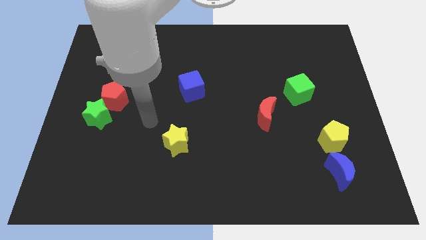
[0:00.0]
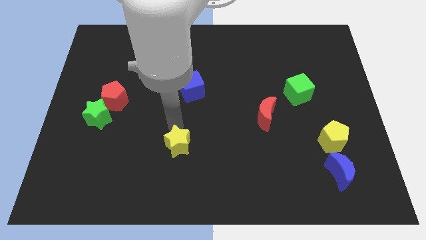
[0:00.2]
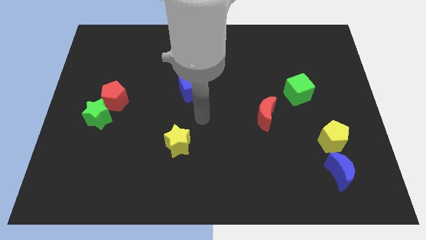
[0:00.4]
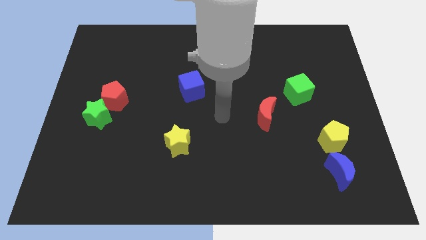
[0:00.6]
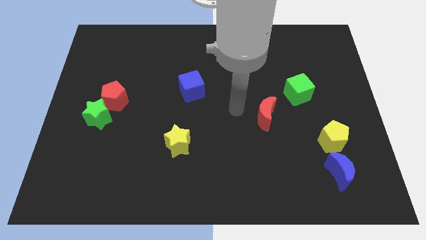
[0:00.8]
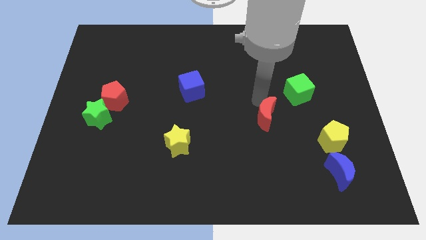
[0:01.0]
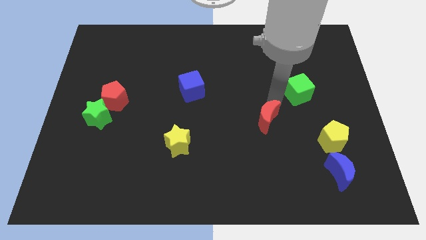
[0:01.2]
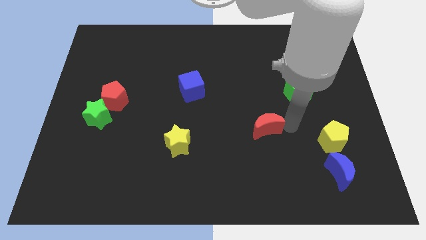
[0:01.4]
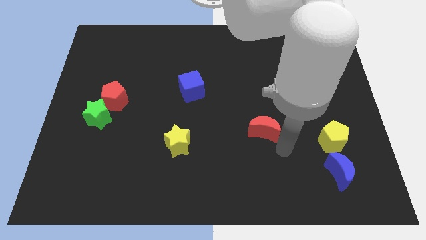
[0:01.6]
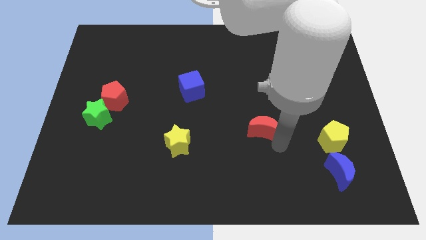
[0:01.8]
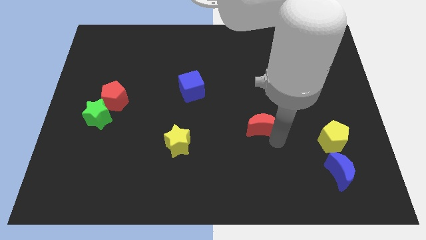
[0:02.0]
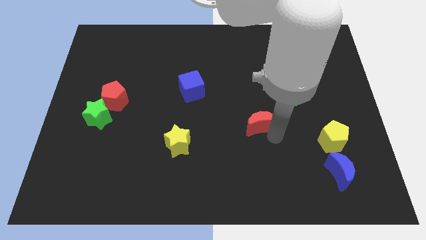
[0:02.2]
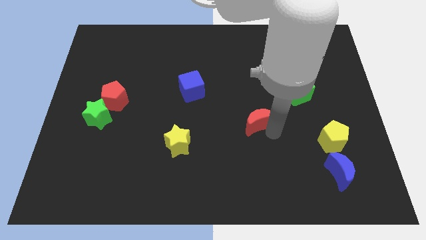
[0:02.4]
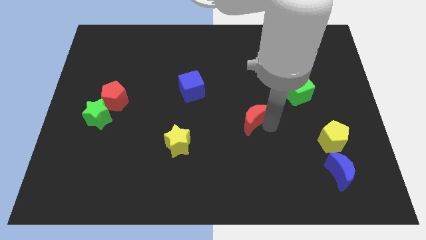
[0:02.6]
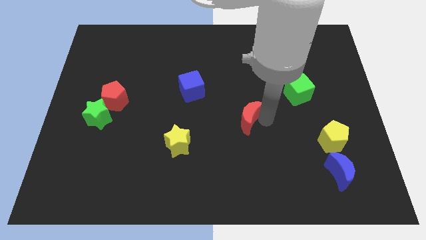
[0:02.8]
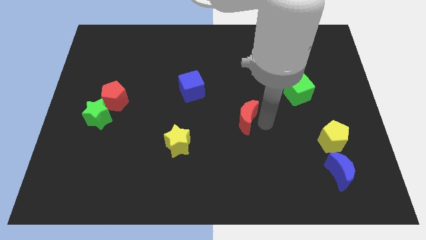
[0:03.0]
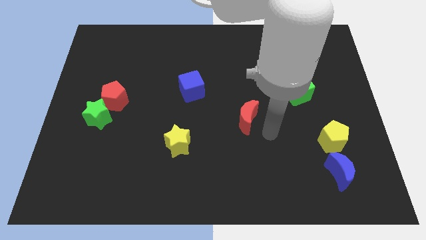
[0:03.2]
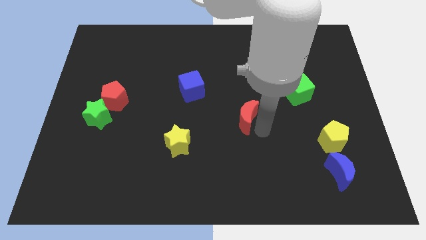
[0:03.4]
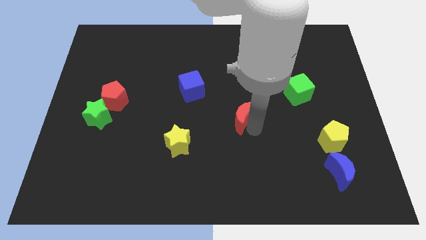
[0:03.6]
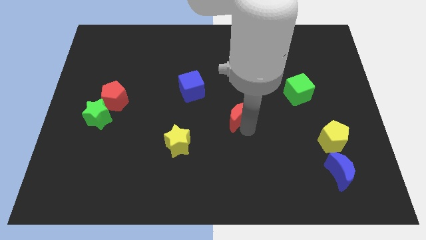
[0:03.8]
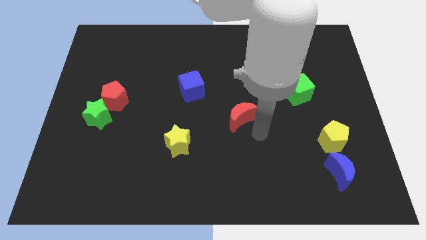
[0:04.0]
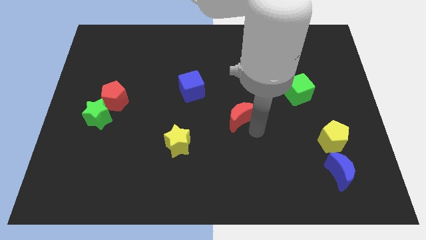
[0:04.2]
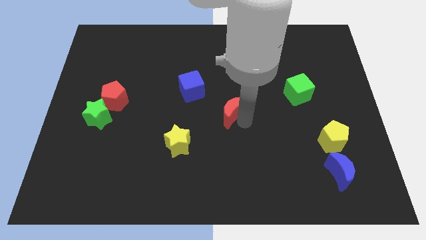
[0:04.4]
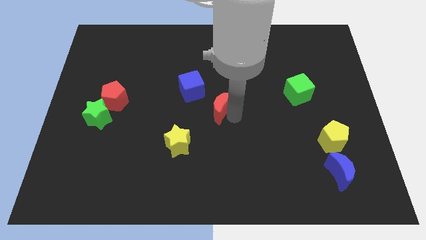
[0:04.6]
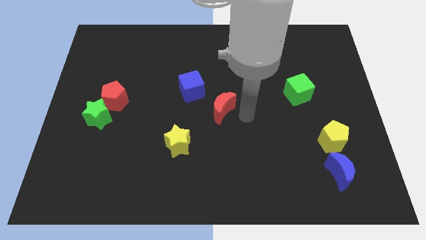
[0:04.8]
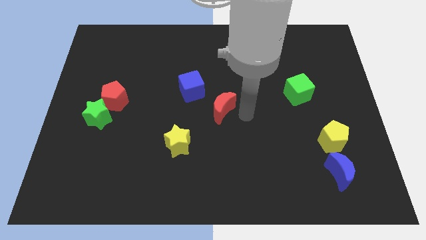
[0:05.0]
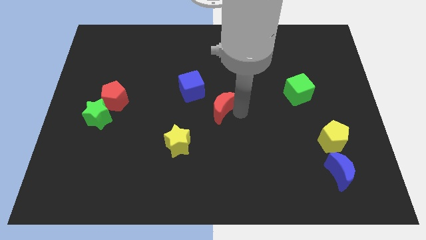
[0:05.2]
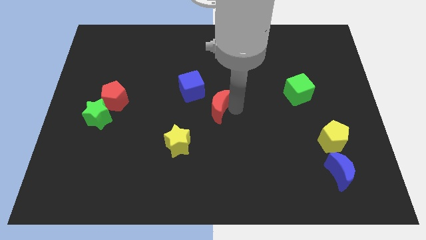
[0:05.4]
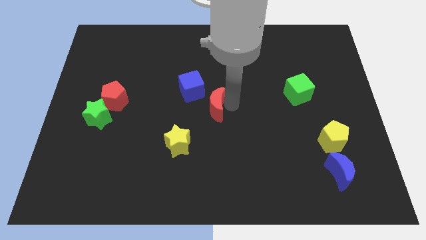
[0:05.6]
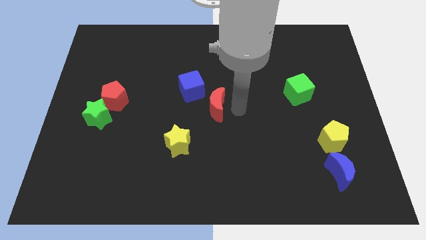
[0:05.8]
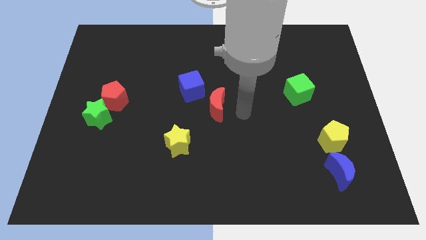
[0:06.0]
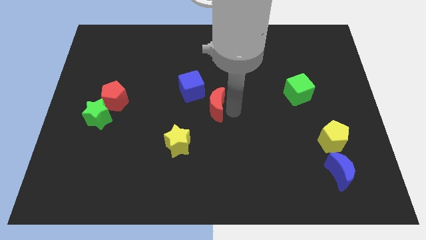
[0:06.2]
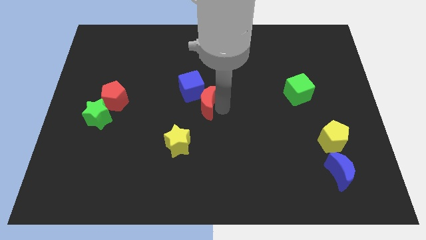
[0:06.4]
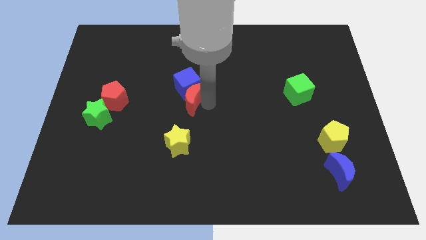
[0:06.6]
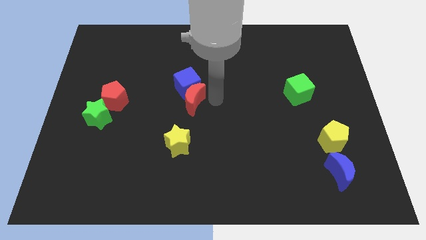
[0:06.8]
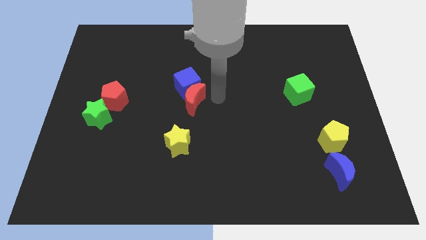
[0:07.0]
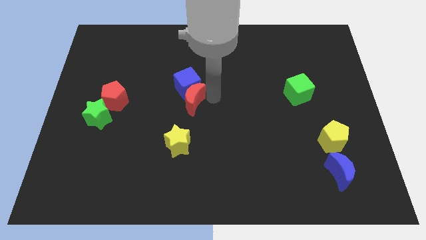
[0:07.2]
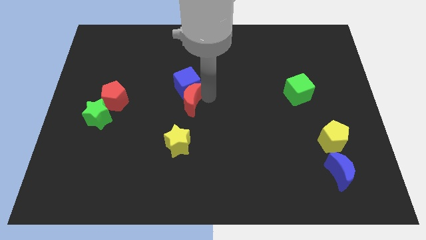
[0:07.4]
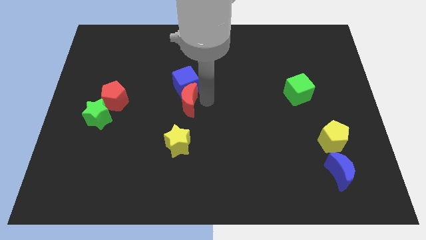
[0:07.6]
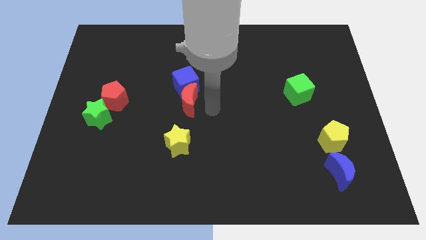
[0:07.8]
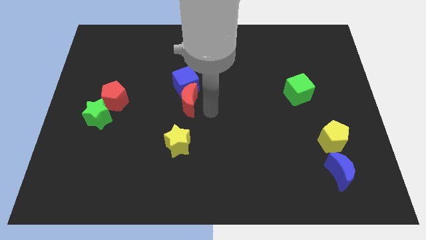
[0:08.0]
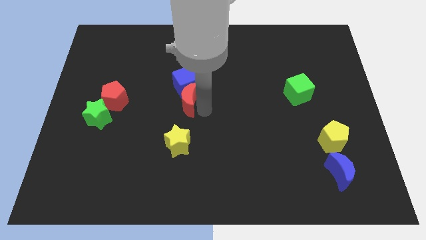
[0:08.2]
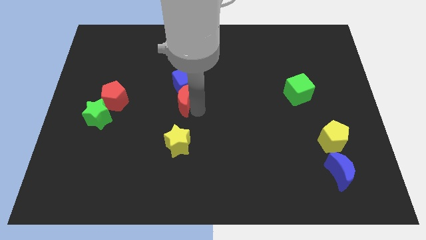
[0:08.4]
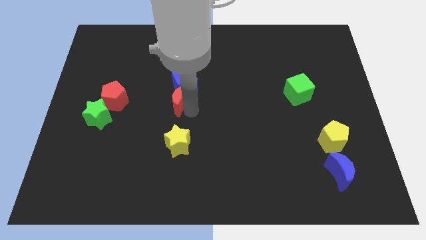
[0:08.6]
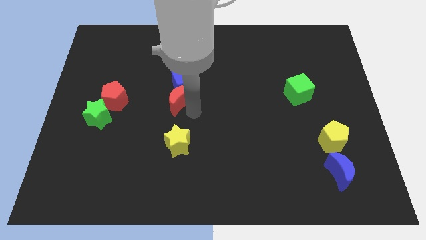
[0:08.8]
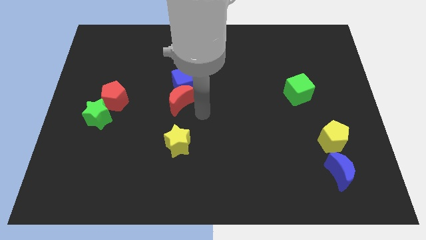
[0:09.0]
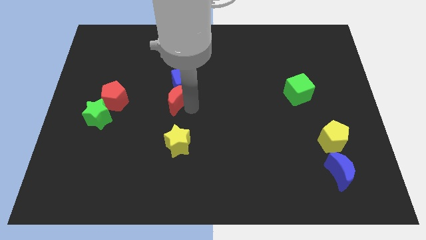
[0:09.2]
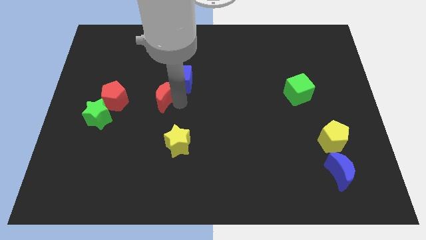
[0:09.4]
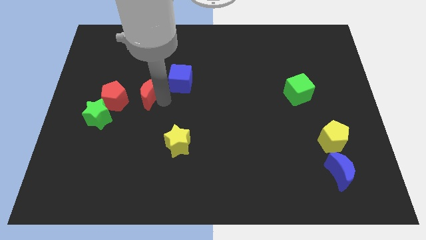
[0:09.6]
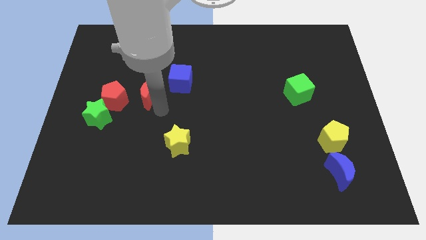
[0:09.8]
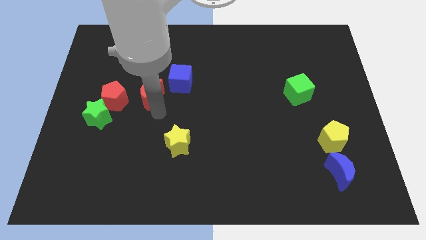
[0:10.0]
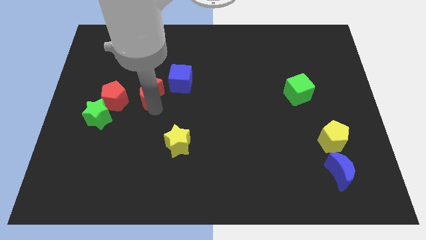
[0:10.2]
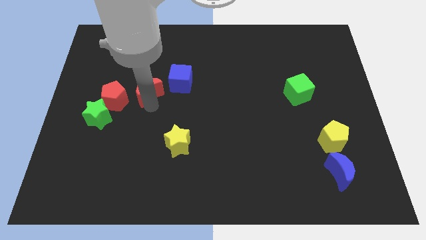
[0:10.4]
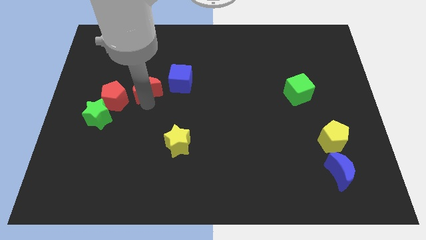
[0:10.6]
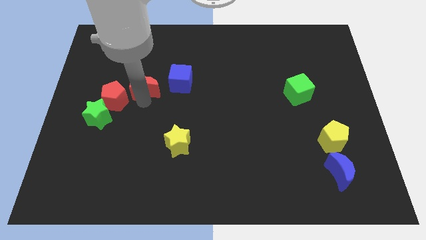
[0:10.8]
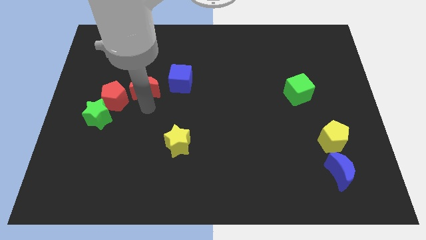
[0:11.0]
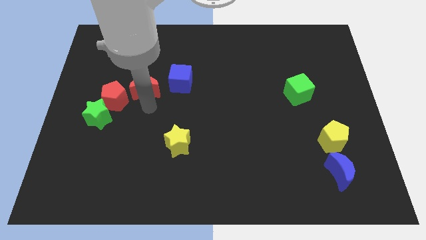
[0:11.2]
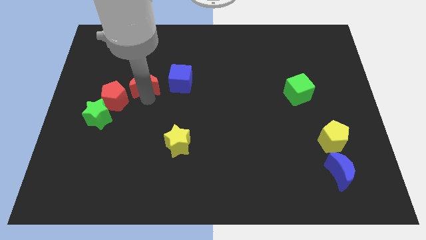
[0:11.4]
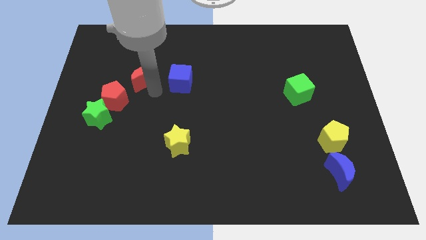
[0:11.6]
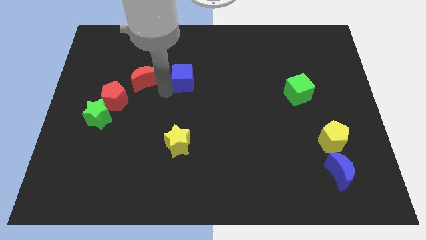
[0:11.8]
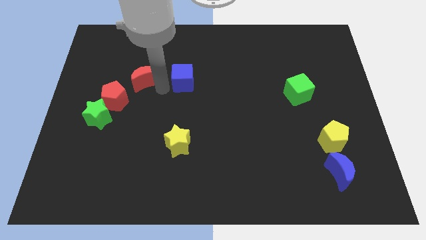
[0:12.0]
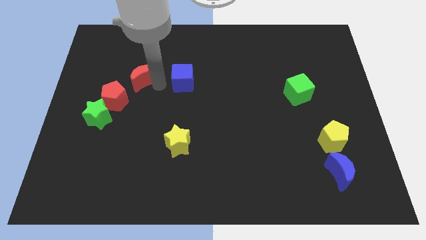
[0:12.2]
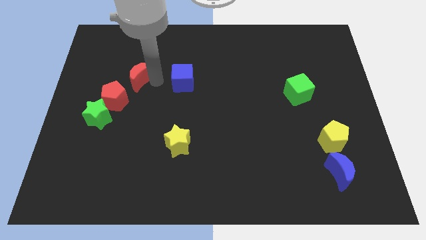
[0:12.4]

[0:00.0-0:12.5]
put the red moon above the red pentagon
